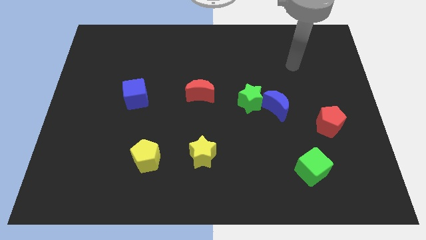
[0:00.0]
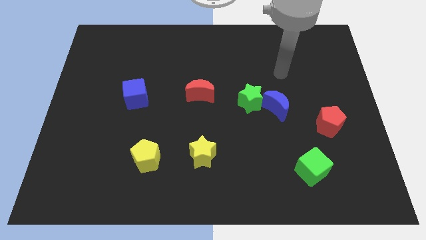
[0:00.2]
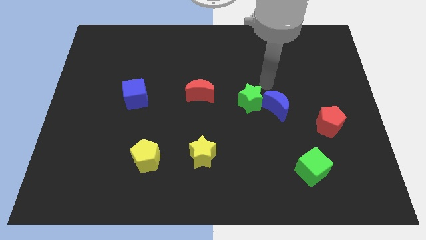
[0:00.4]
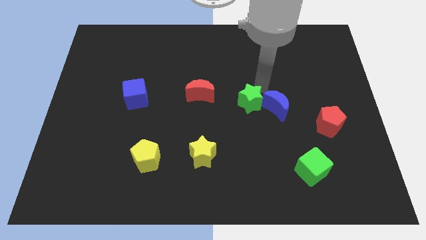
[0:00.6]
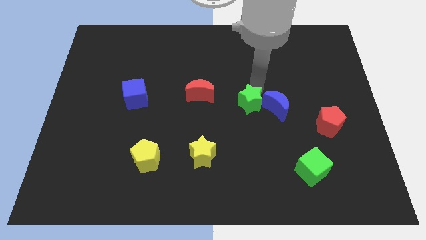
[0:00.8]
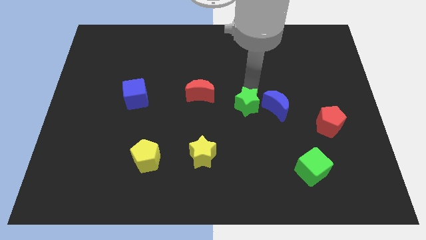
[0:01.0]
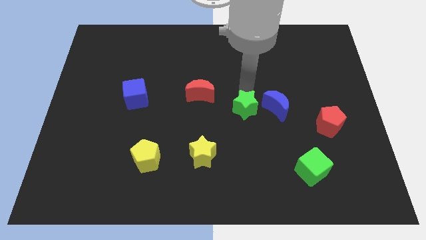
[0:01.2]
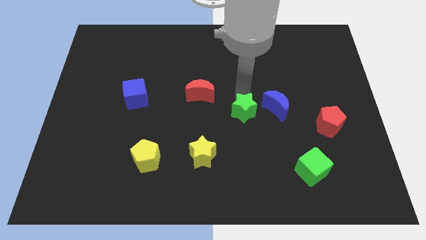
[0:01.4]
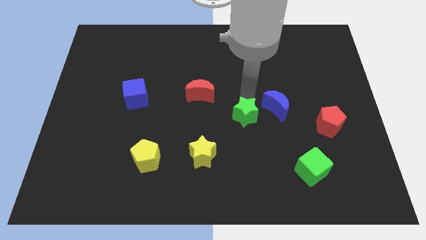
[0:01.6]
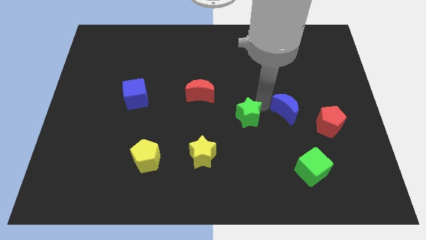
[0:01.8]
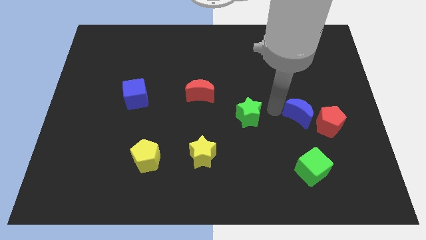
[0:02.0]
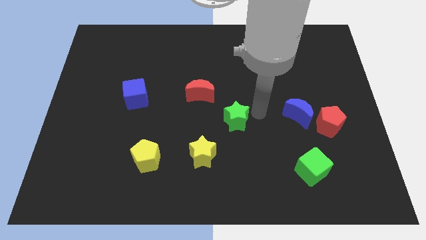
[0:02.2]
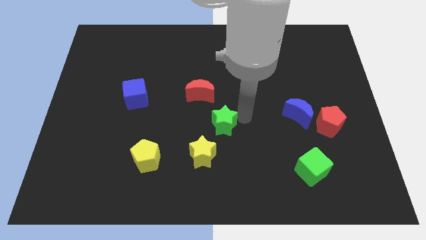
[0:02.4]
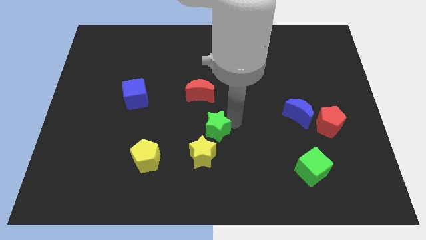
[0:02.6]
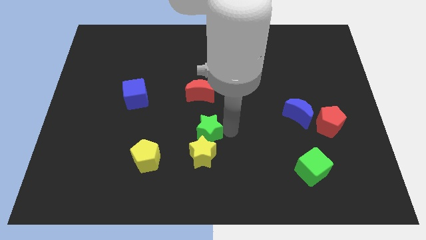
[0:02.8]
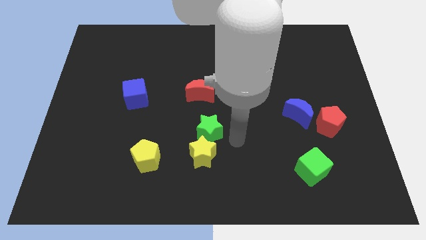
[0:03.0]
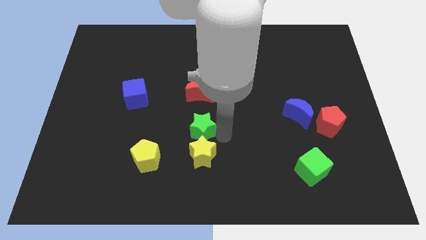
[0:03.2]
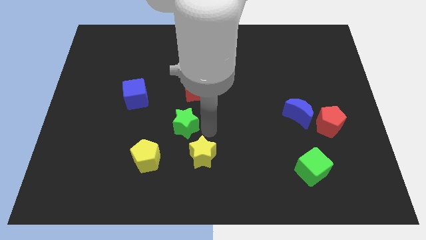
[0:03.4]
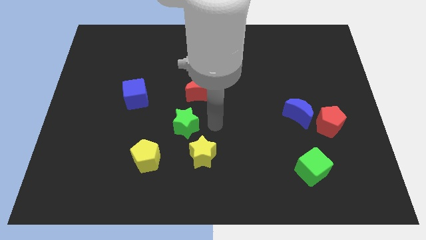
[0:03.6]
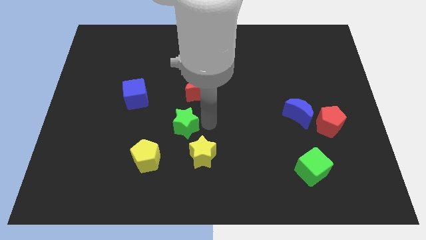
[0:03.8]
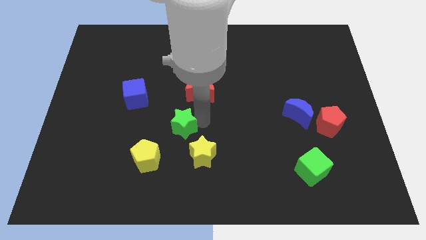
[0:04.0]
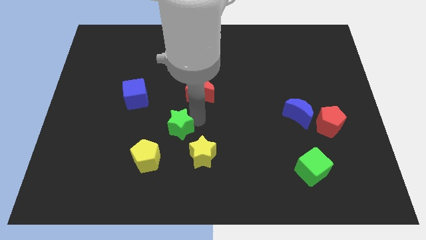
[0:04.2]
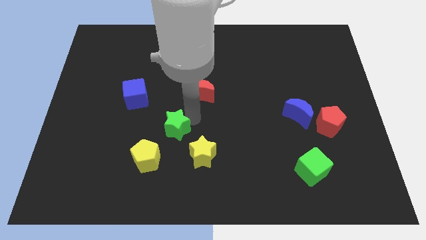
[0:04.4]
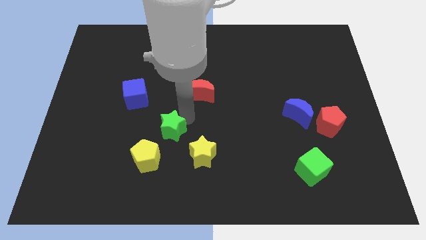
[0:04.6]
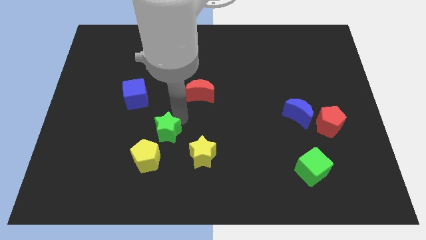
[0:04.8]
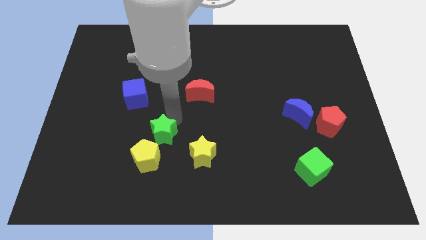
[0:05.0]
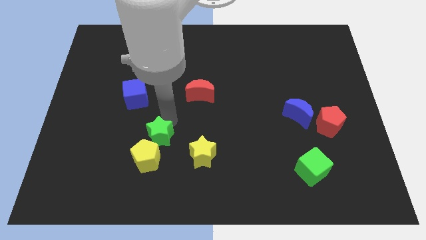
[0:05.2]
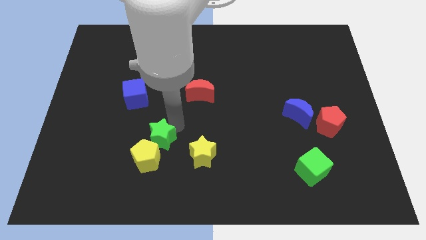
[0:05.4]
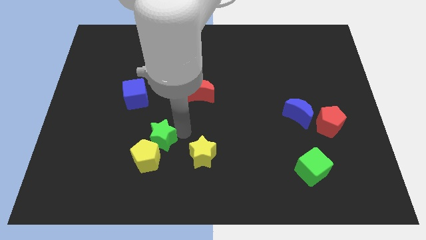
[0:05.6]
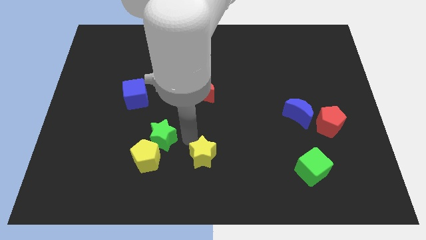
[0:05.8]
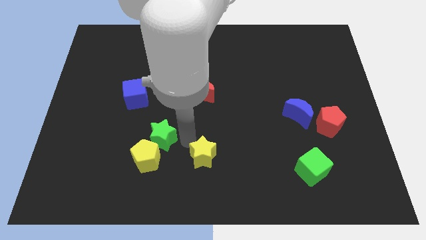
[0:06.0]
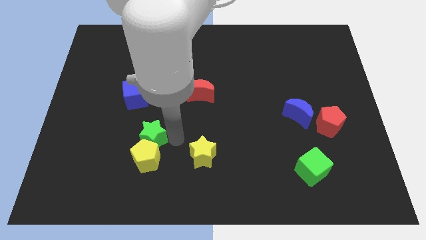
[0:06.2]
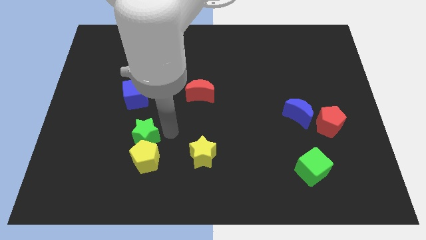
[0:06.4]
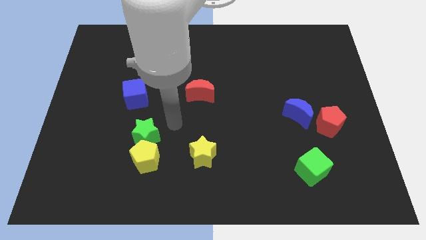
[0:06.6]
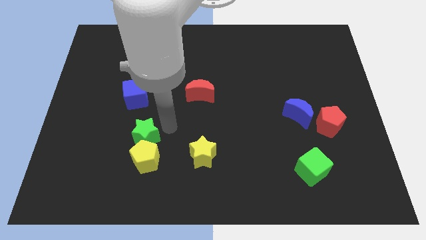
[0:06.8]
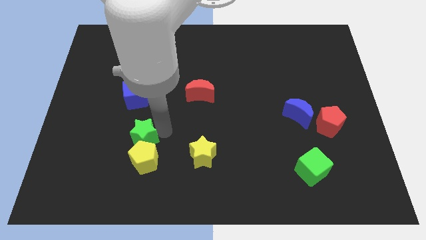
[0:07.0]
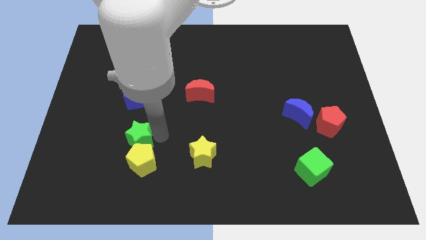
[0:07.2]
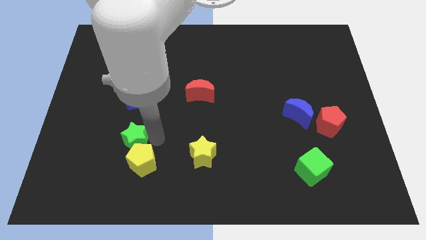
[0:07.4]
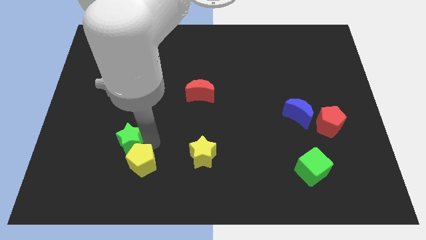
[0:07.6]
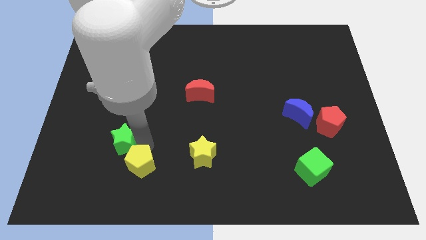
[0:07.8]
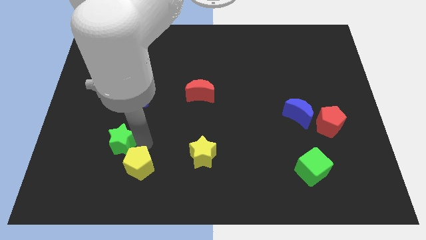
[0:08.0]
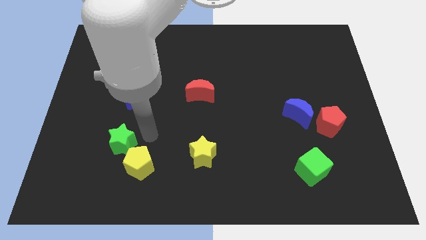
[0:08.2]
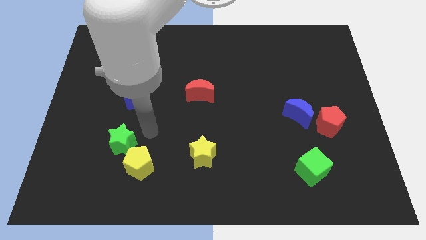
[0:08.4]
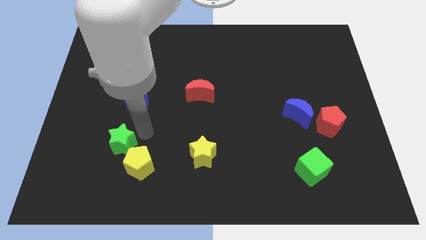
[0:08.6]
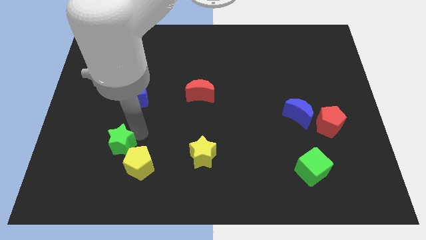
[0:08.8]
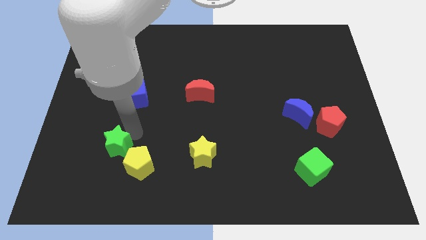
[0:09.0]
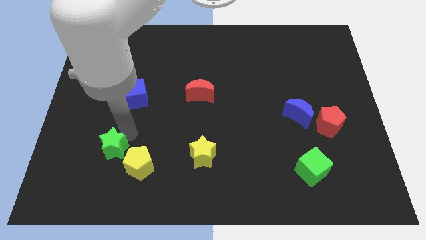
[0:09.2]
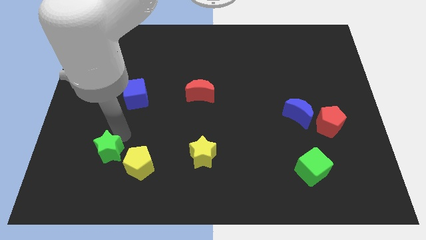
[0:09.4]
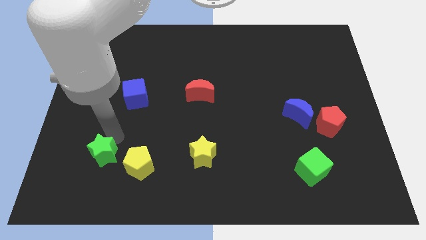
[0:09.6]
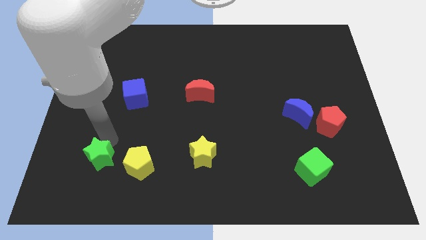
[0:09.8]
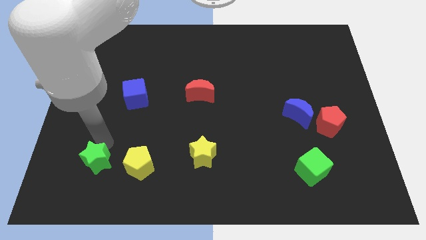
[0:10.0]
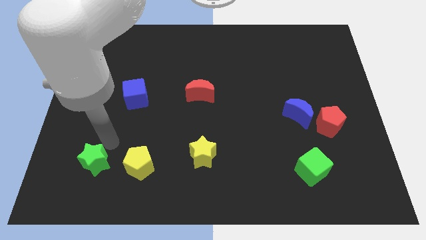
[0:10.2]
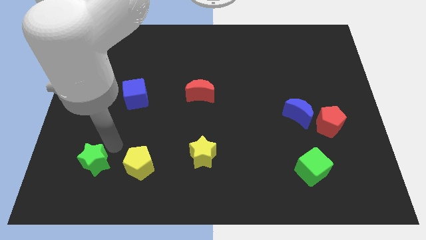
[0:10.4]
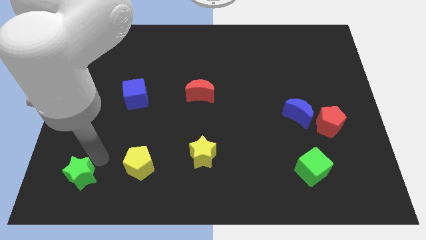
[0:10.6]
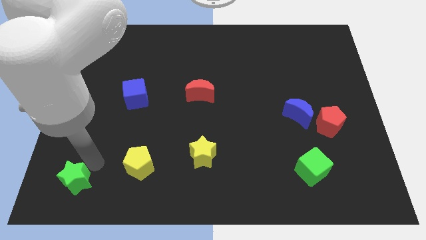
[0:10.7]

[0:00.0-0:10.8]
put the green star to the bottom left

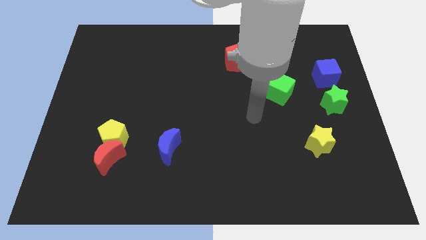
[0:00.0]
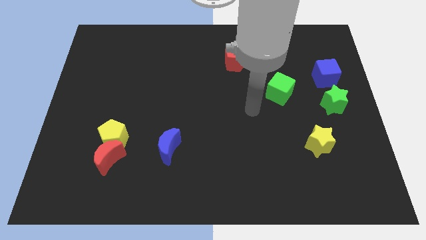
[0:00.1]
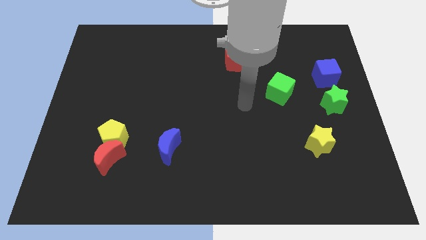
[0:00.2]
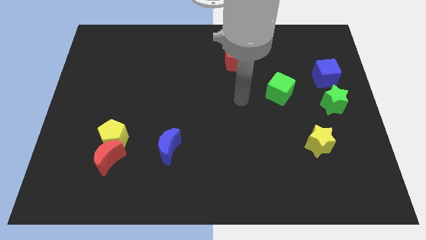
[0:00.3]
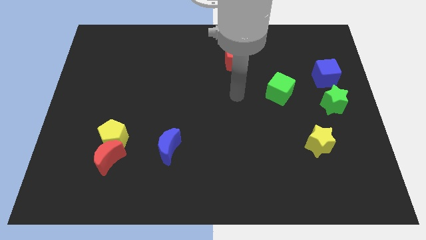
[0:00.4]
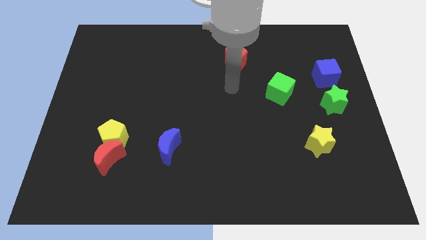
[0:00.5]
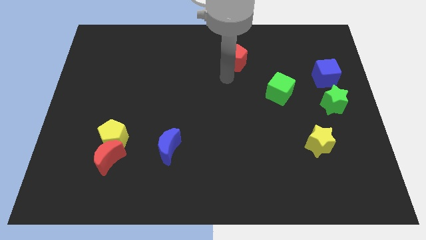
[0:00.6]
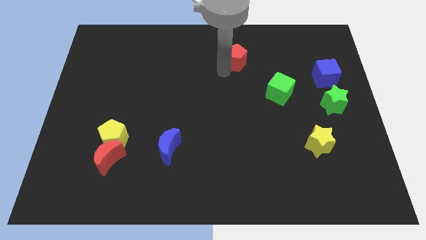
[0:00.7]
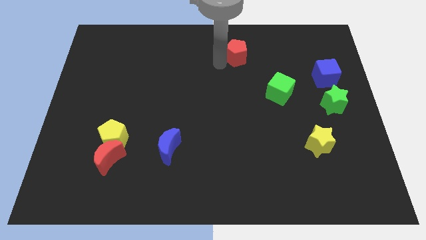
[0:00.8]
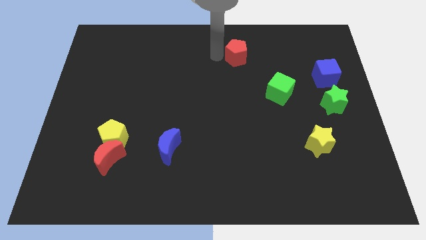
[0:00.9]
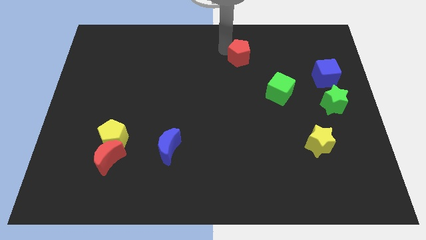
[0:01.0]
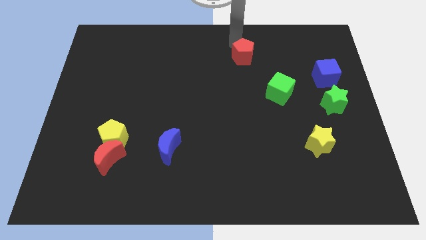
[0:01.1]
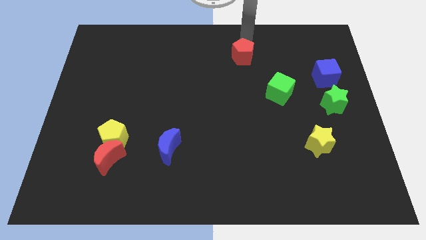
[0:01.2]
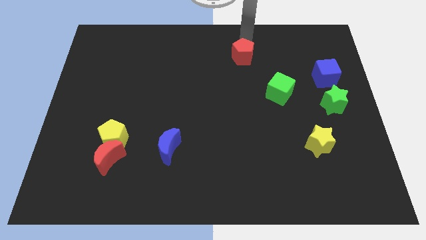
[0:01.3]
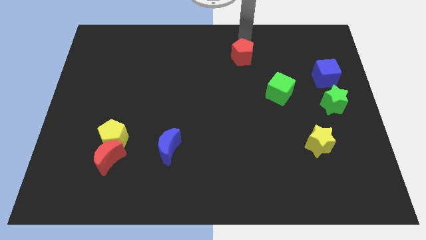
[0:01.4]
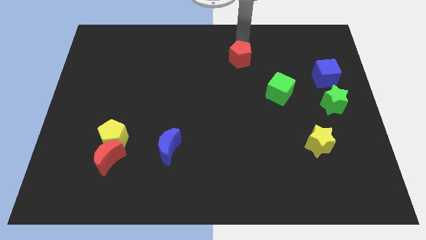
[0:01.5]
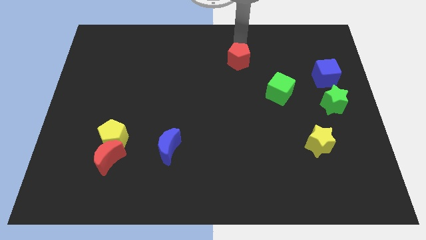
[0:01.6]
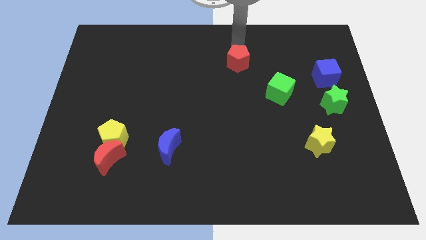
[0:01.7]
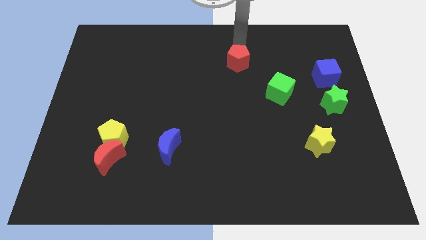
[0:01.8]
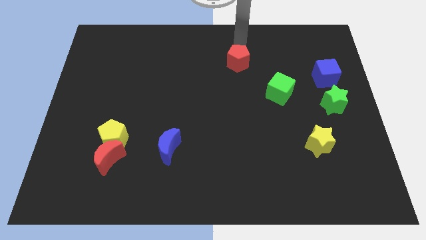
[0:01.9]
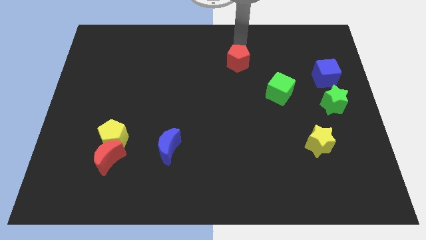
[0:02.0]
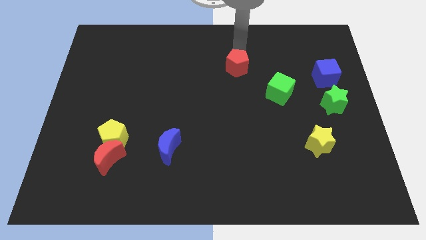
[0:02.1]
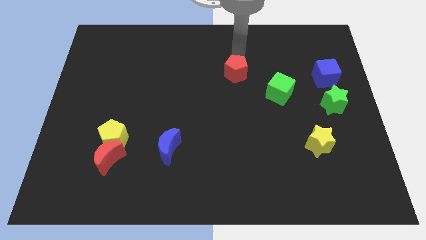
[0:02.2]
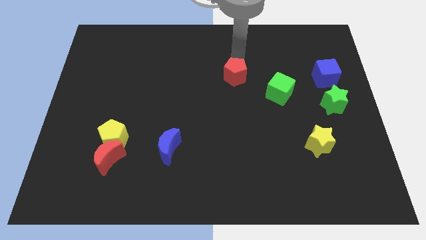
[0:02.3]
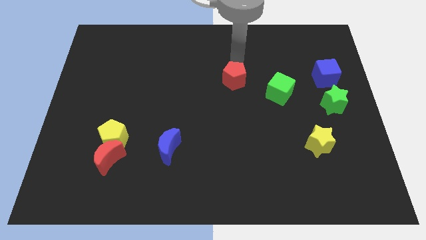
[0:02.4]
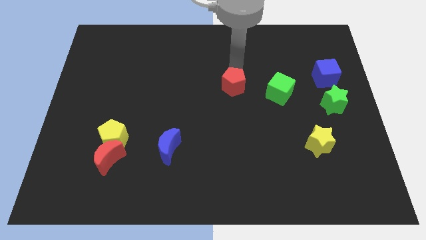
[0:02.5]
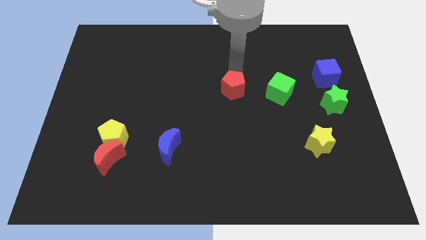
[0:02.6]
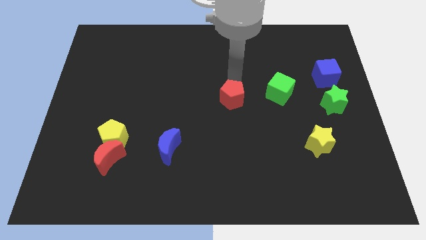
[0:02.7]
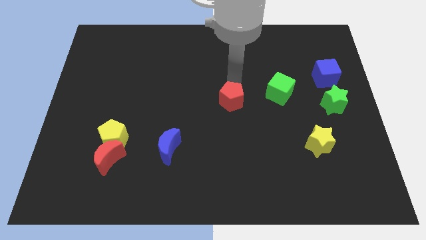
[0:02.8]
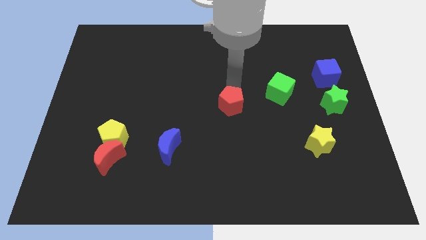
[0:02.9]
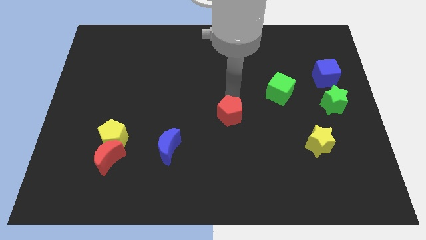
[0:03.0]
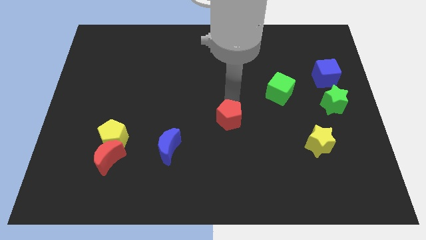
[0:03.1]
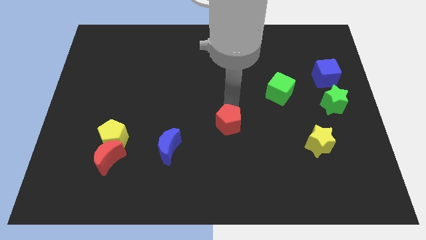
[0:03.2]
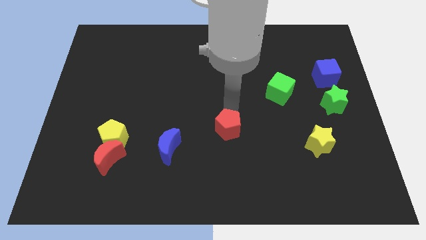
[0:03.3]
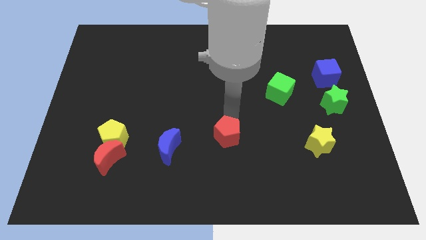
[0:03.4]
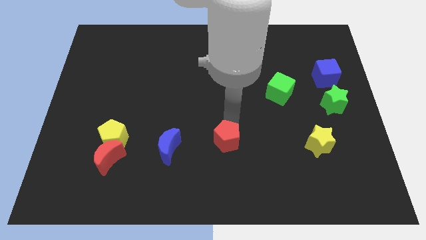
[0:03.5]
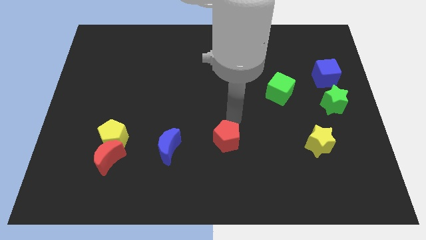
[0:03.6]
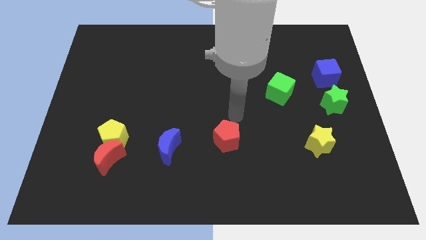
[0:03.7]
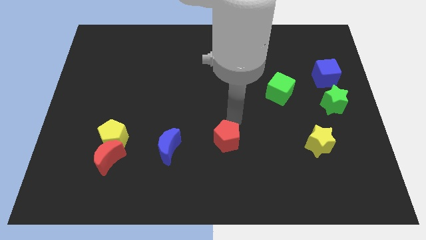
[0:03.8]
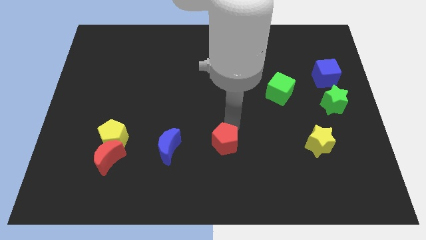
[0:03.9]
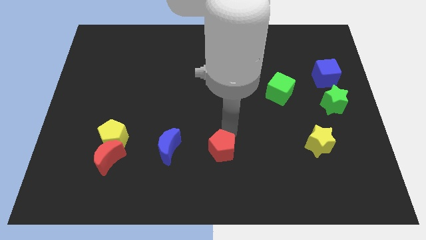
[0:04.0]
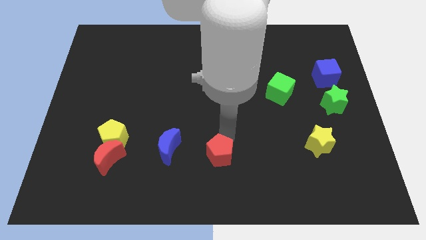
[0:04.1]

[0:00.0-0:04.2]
push the red pentagon to the bottom
